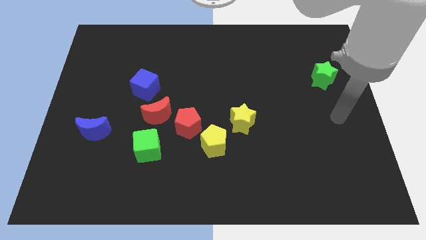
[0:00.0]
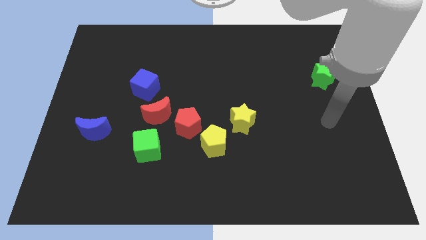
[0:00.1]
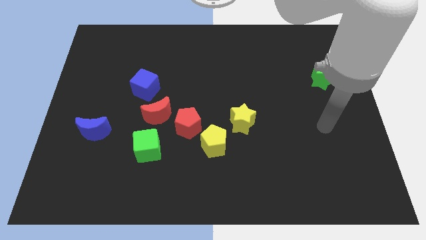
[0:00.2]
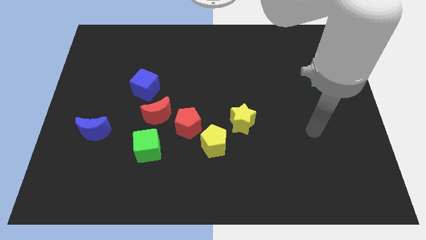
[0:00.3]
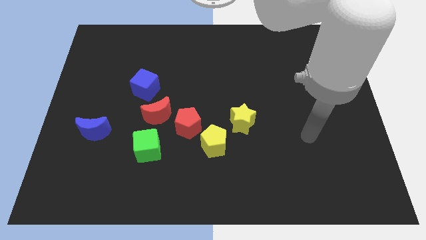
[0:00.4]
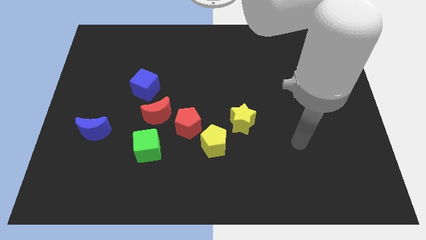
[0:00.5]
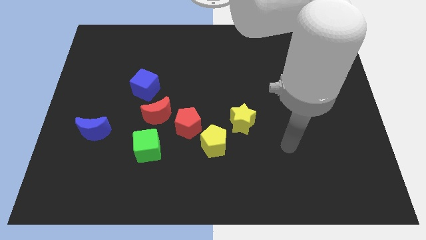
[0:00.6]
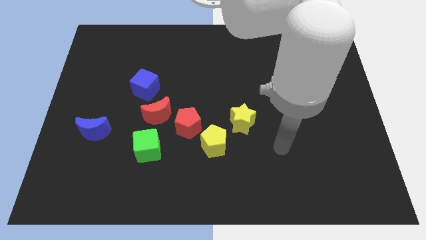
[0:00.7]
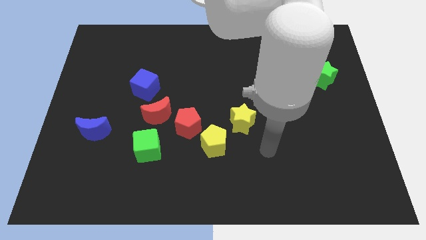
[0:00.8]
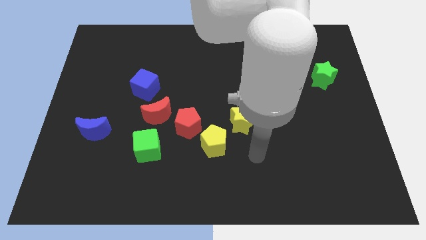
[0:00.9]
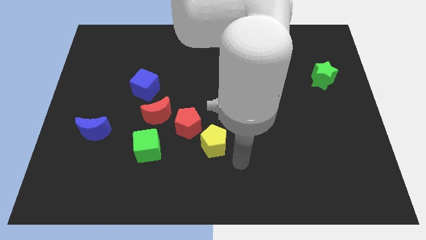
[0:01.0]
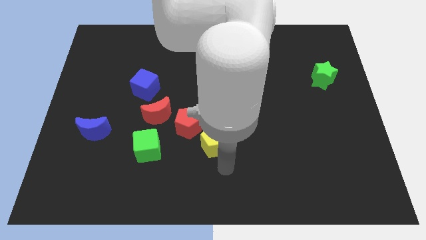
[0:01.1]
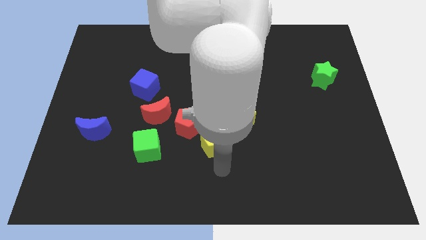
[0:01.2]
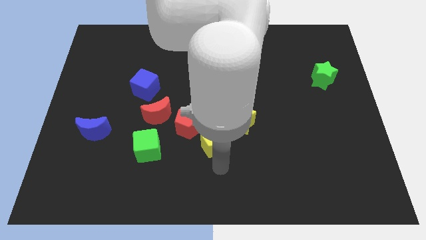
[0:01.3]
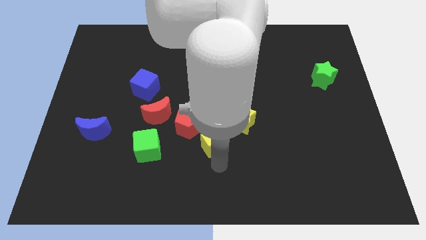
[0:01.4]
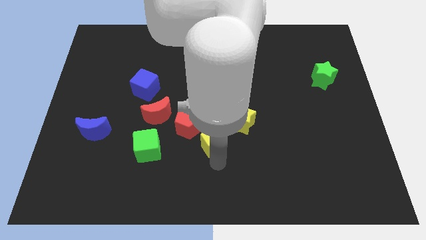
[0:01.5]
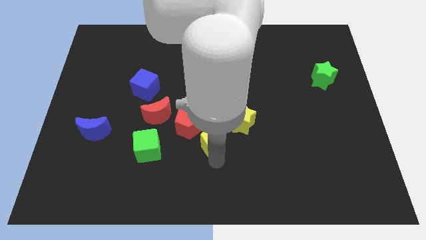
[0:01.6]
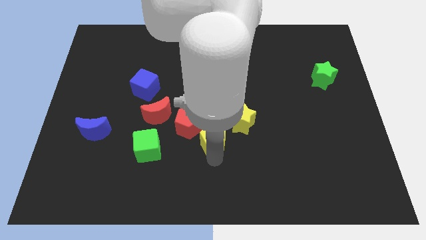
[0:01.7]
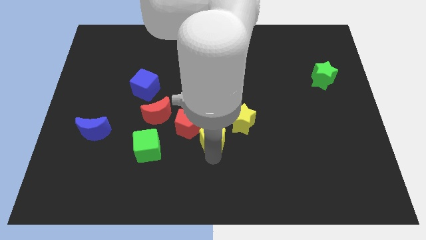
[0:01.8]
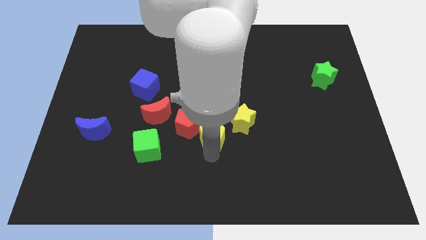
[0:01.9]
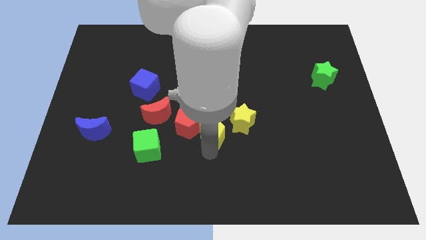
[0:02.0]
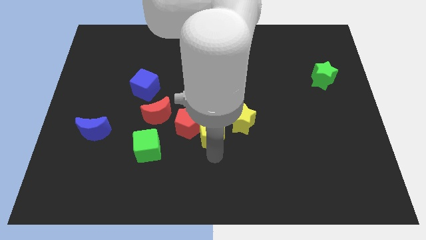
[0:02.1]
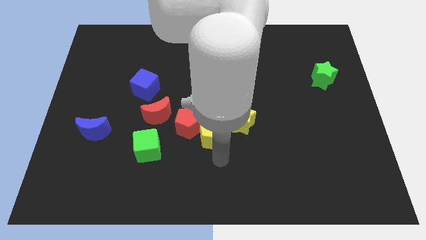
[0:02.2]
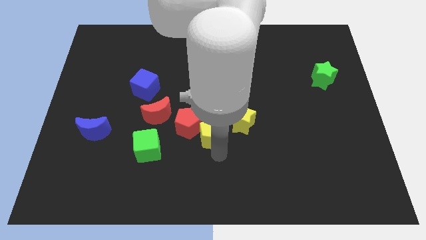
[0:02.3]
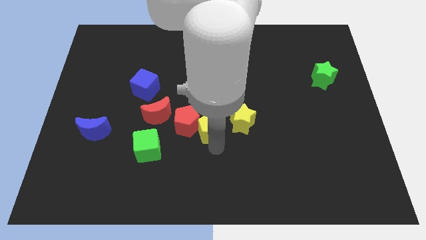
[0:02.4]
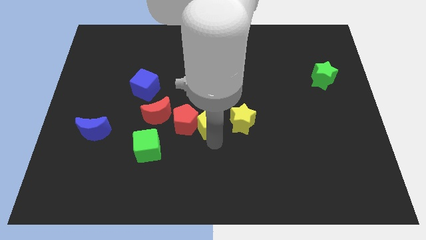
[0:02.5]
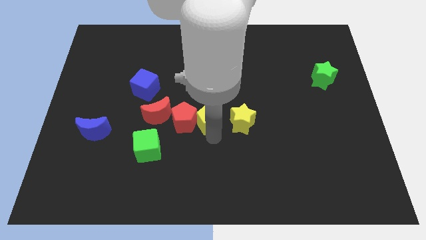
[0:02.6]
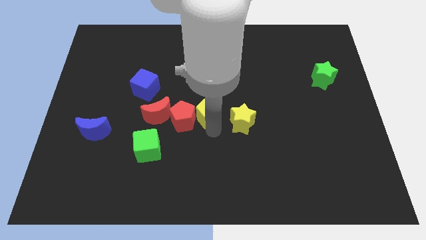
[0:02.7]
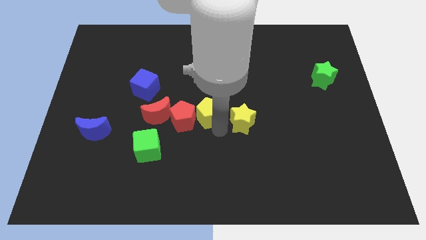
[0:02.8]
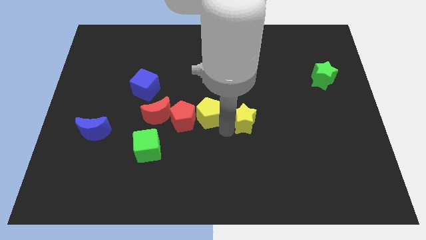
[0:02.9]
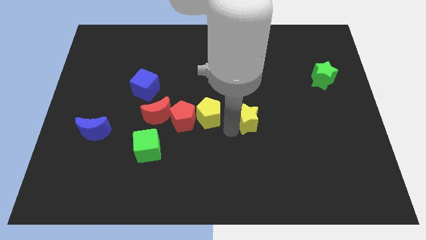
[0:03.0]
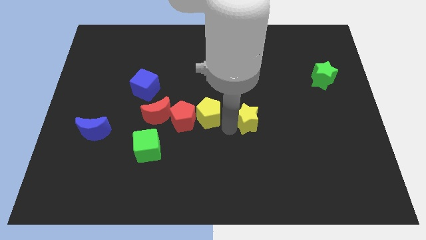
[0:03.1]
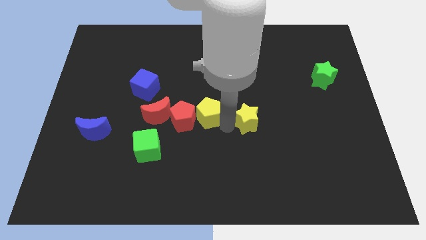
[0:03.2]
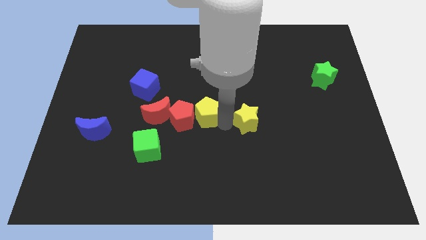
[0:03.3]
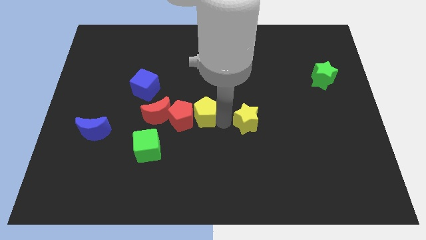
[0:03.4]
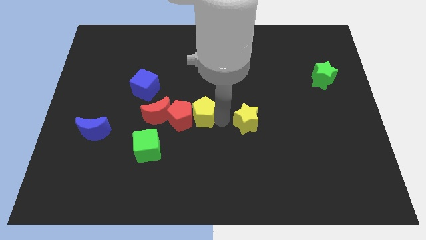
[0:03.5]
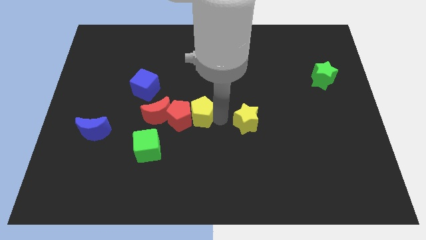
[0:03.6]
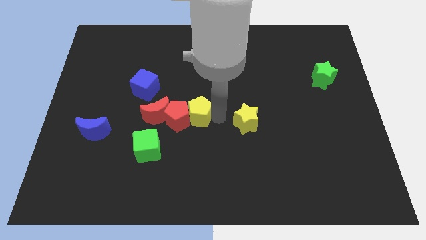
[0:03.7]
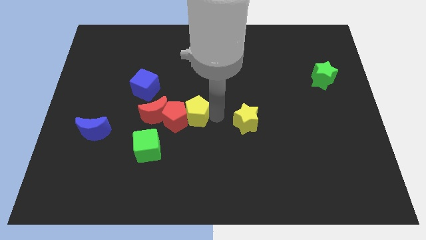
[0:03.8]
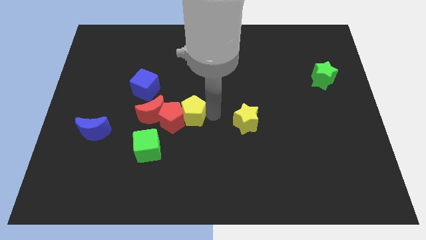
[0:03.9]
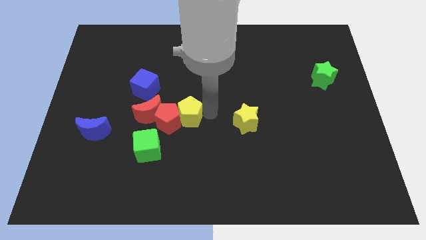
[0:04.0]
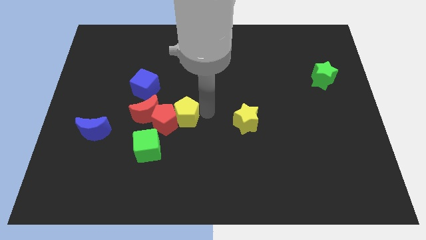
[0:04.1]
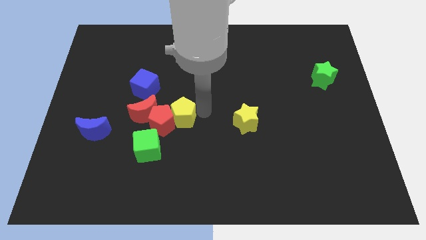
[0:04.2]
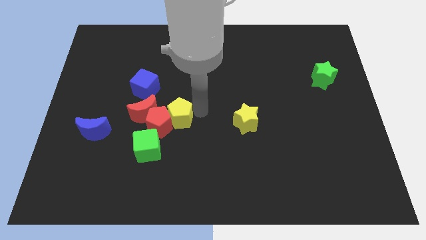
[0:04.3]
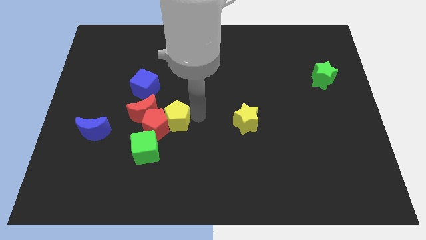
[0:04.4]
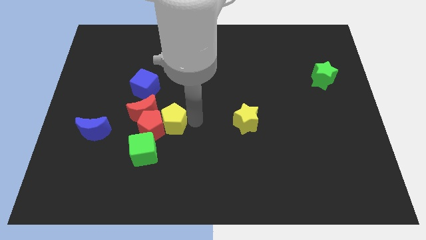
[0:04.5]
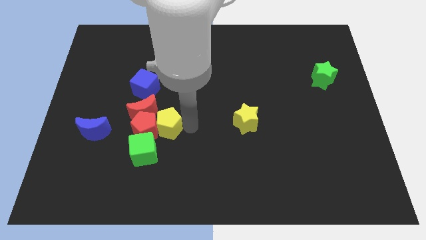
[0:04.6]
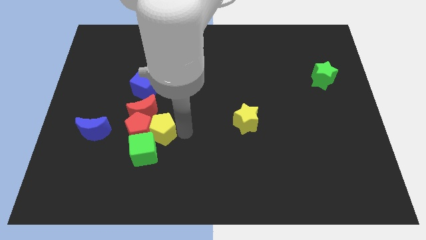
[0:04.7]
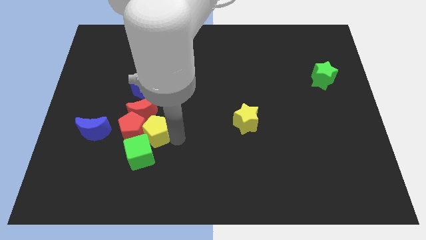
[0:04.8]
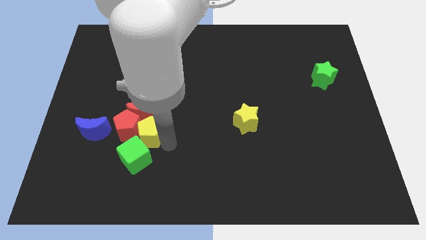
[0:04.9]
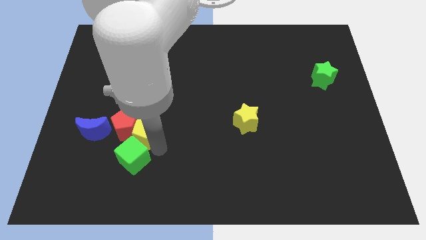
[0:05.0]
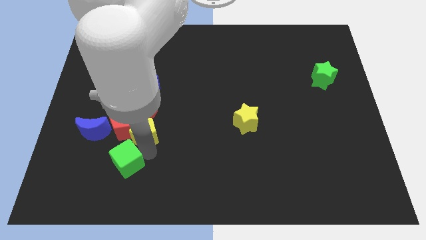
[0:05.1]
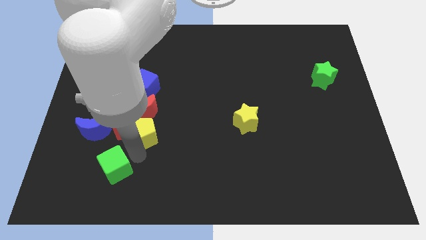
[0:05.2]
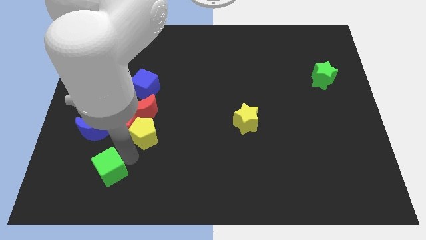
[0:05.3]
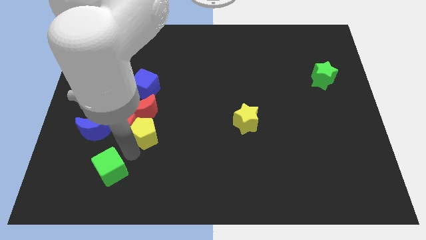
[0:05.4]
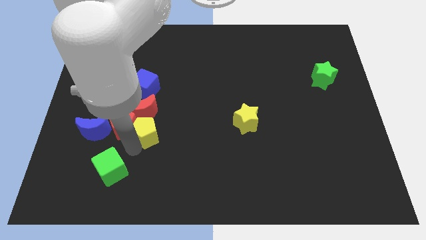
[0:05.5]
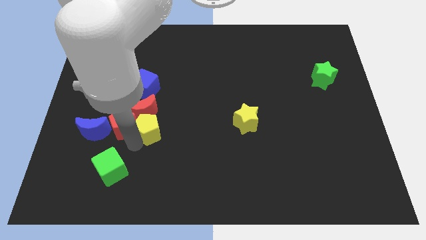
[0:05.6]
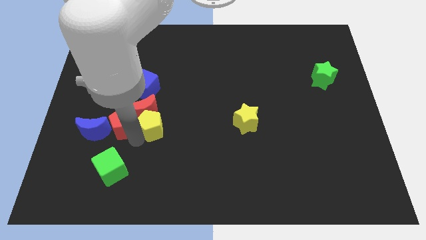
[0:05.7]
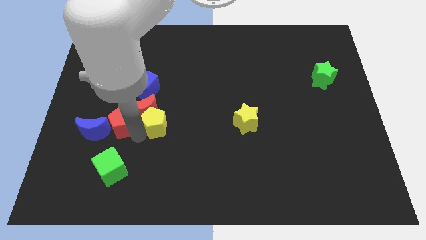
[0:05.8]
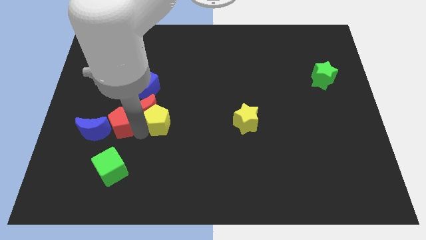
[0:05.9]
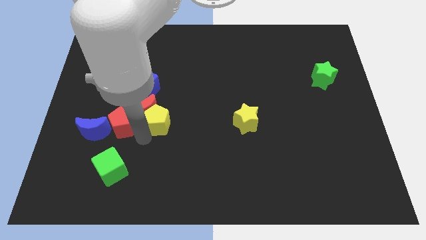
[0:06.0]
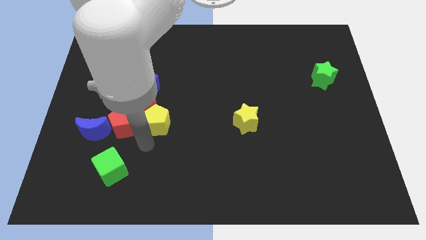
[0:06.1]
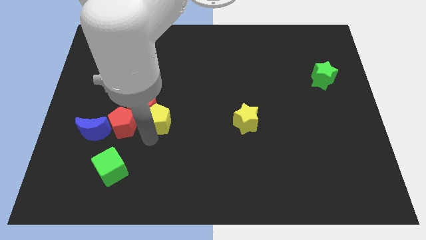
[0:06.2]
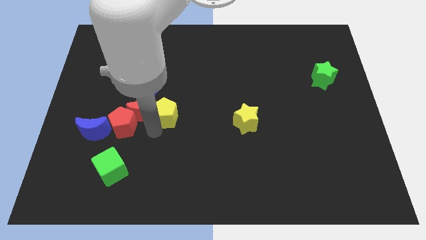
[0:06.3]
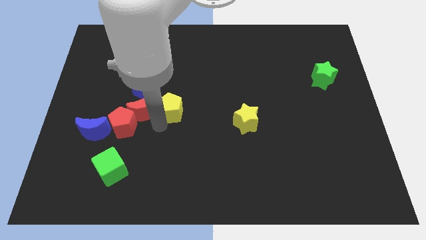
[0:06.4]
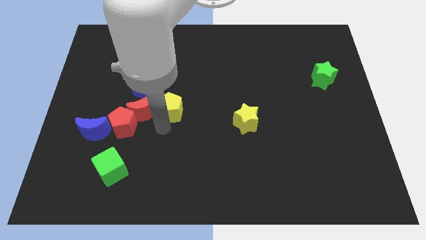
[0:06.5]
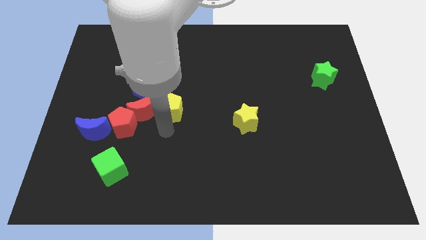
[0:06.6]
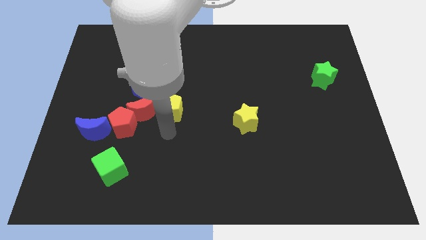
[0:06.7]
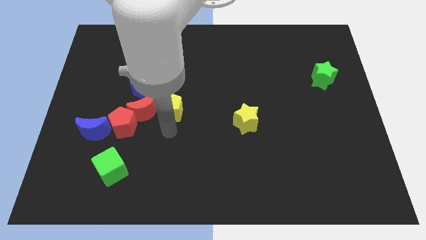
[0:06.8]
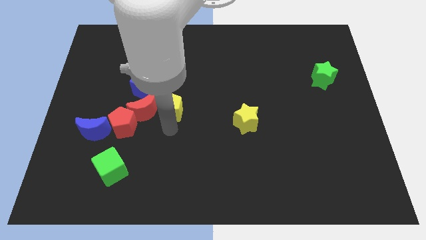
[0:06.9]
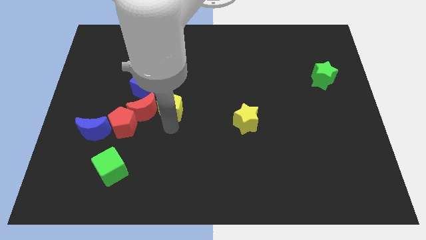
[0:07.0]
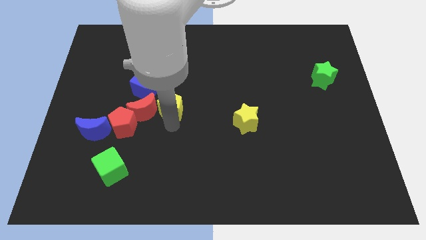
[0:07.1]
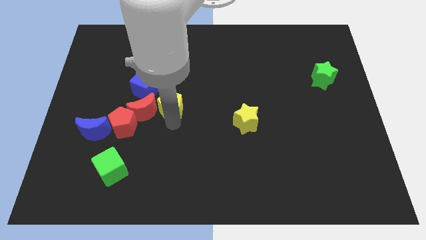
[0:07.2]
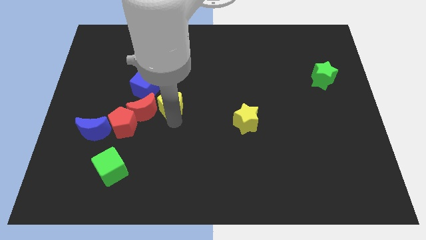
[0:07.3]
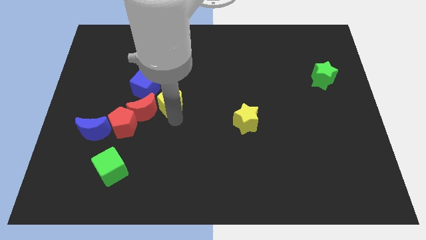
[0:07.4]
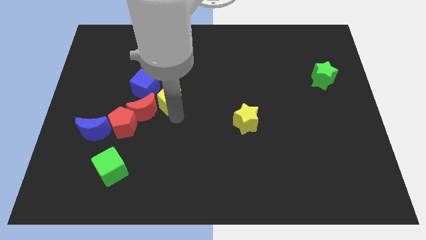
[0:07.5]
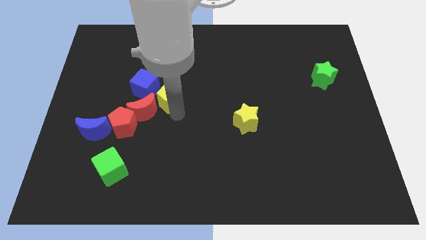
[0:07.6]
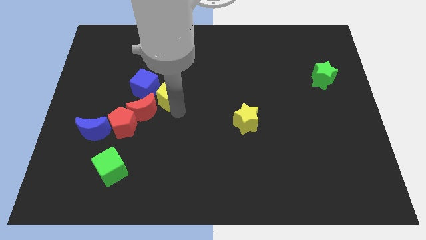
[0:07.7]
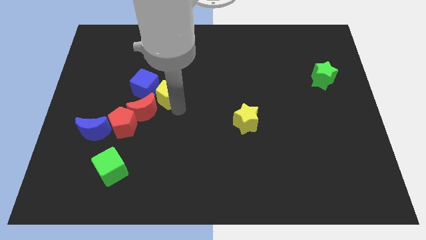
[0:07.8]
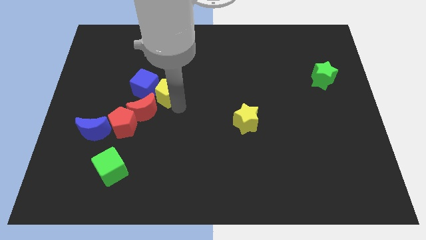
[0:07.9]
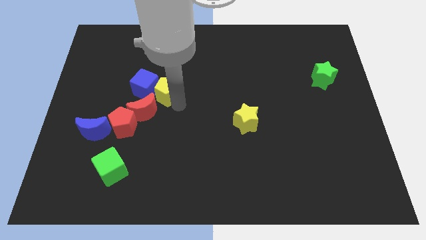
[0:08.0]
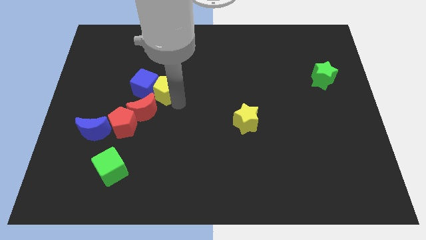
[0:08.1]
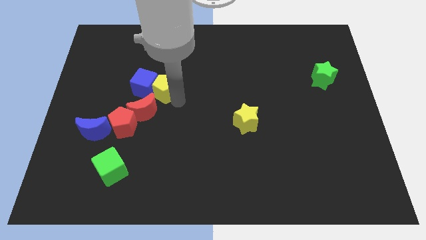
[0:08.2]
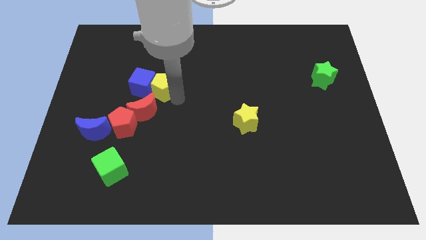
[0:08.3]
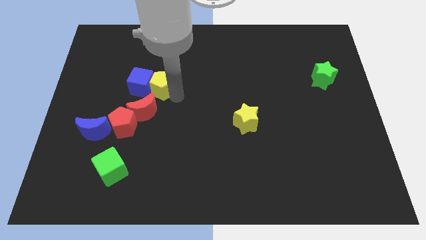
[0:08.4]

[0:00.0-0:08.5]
push the yellow pentagon up and left
